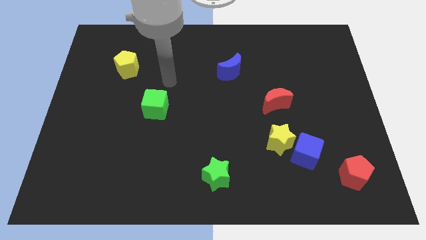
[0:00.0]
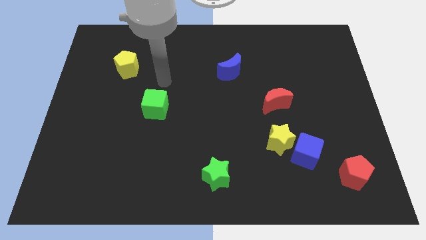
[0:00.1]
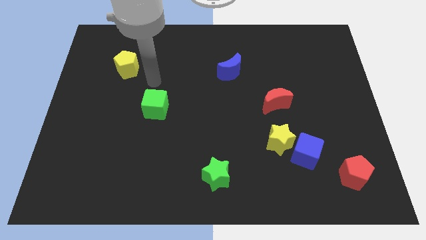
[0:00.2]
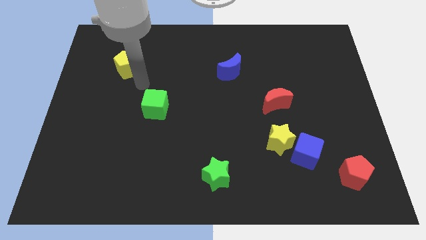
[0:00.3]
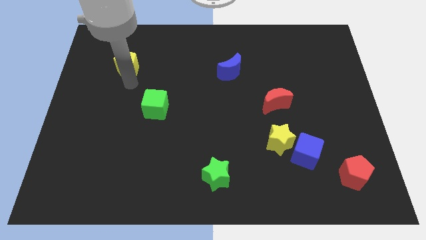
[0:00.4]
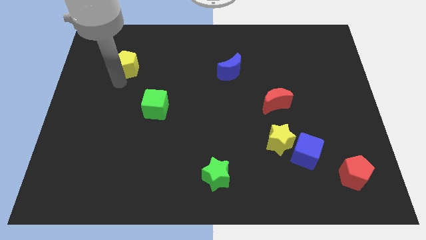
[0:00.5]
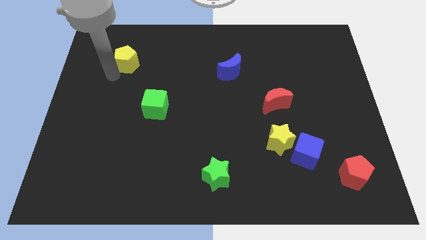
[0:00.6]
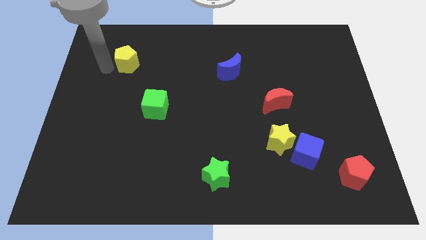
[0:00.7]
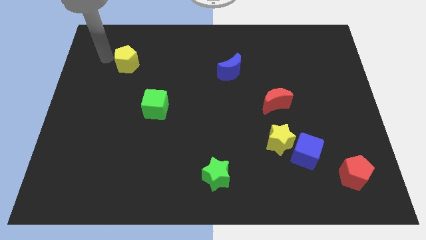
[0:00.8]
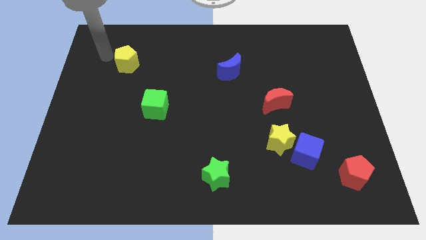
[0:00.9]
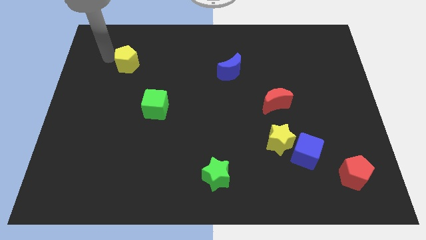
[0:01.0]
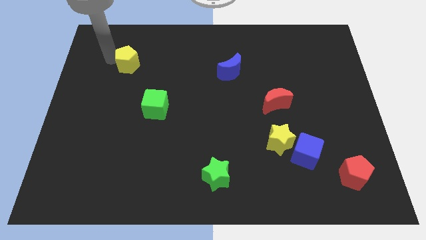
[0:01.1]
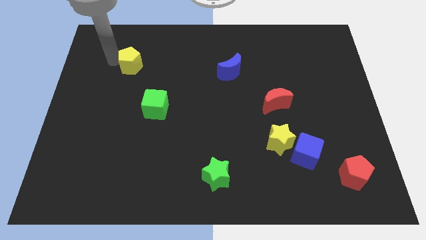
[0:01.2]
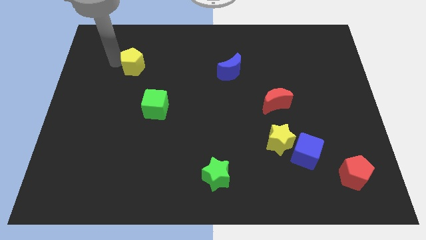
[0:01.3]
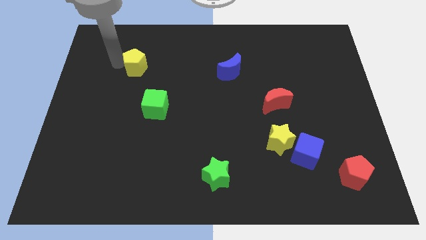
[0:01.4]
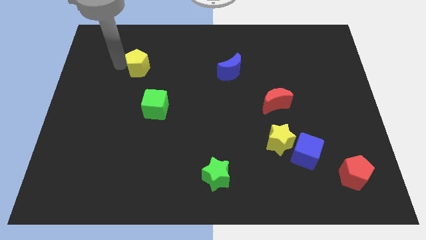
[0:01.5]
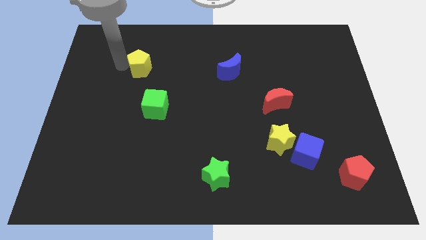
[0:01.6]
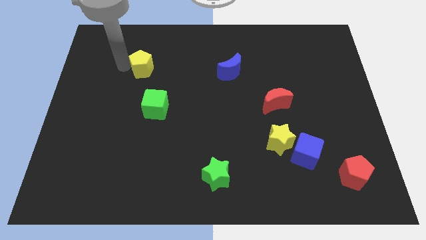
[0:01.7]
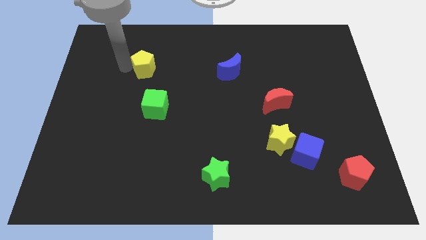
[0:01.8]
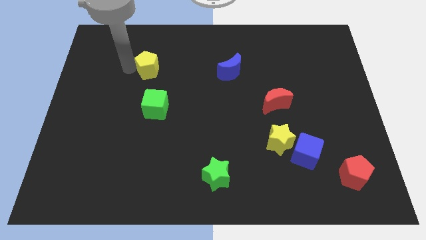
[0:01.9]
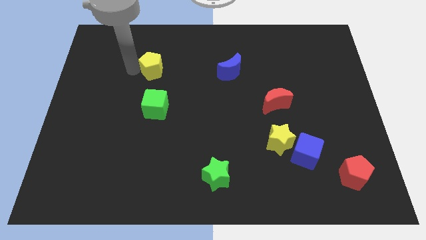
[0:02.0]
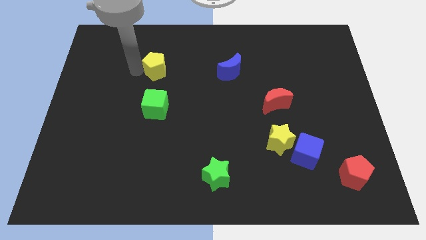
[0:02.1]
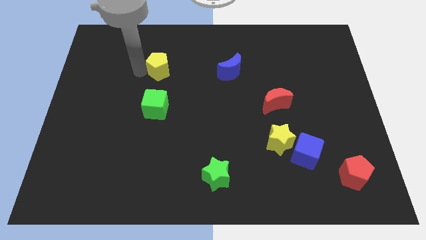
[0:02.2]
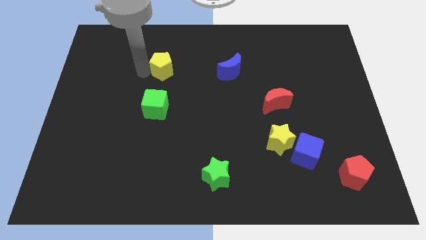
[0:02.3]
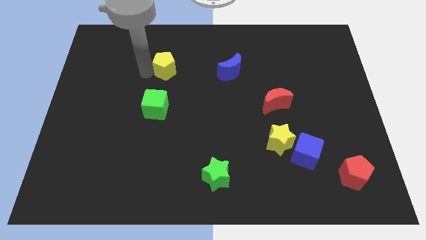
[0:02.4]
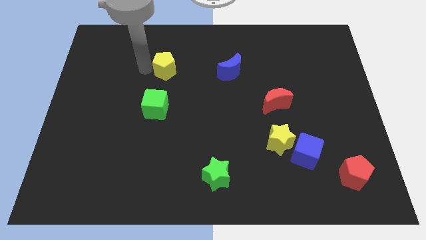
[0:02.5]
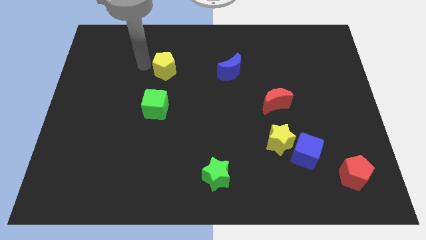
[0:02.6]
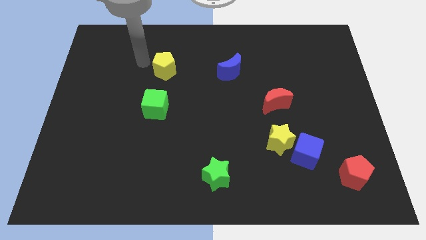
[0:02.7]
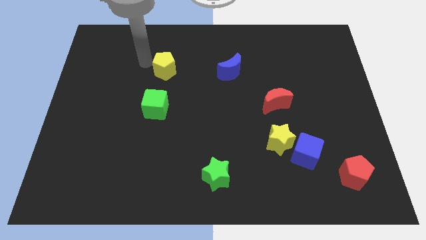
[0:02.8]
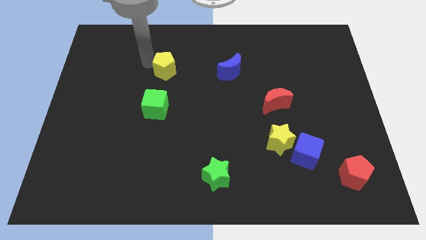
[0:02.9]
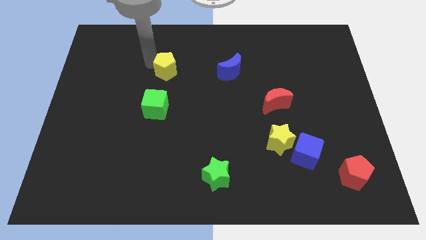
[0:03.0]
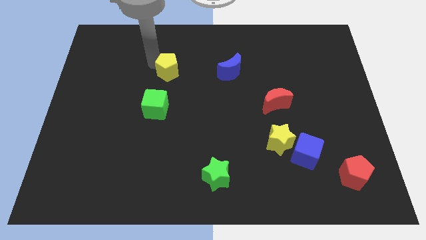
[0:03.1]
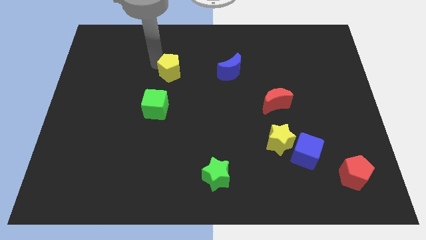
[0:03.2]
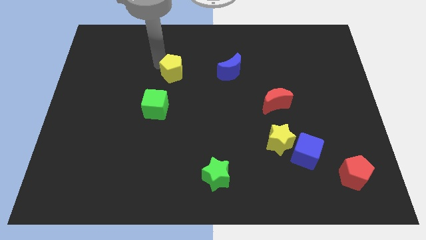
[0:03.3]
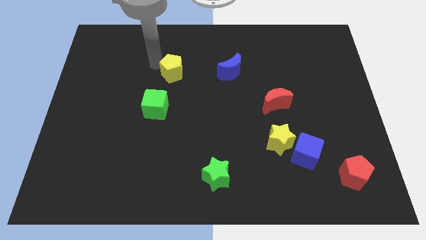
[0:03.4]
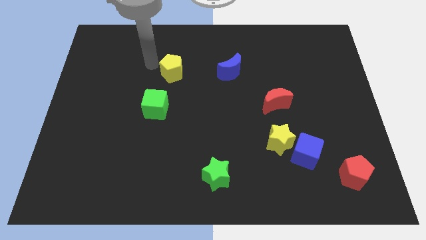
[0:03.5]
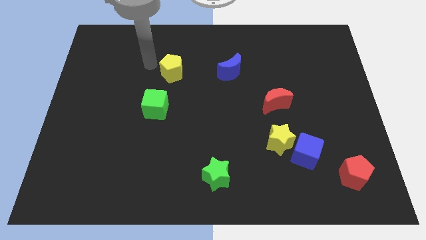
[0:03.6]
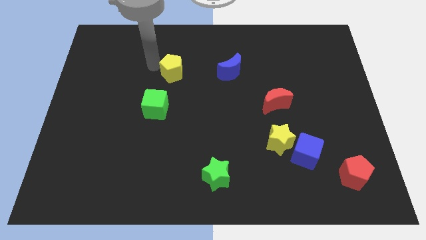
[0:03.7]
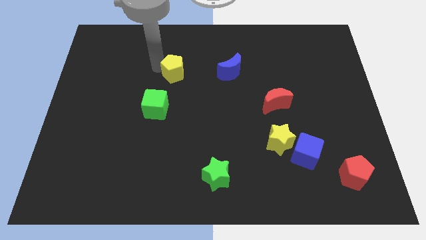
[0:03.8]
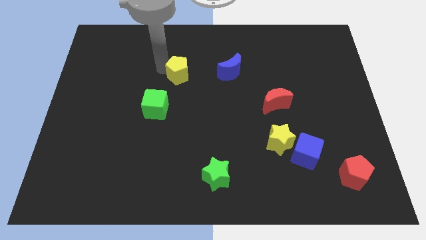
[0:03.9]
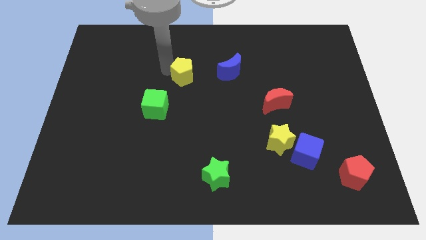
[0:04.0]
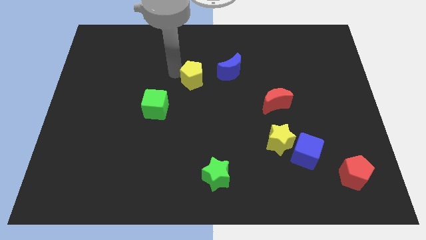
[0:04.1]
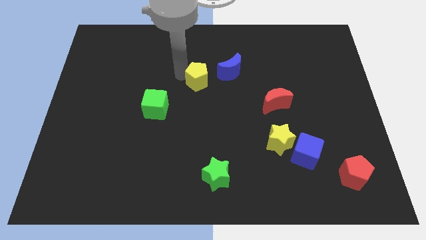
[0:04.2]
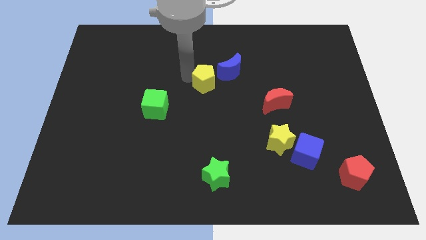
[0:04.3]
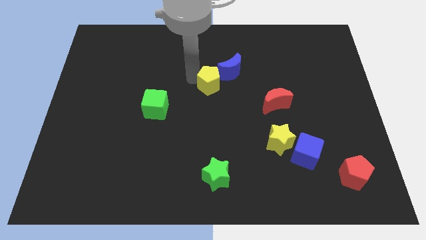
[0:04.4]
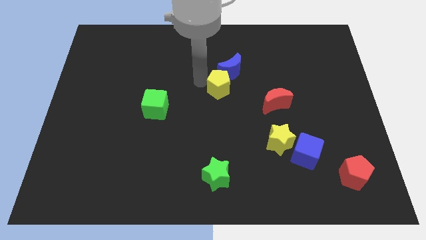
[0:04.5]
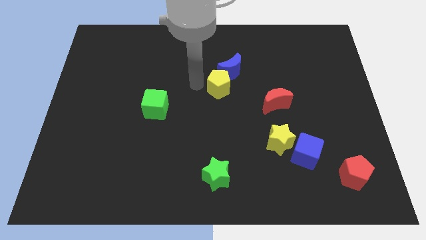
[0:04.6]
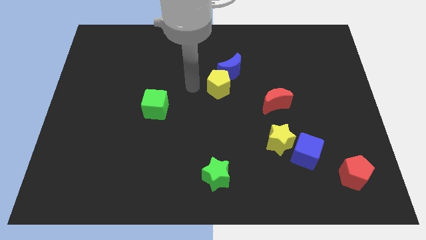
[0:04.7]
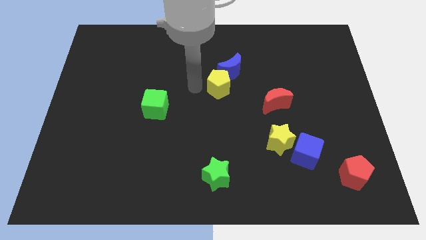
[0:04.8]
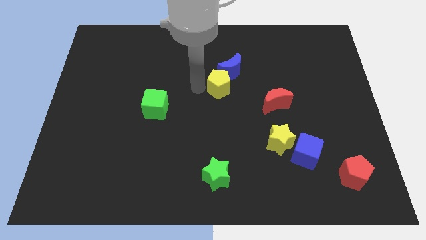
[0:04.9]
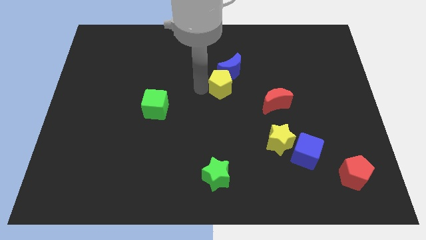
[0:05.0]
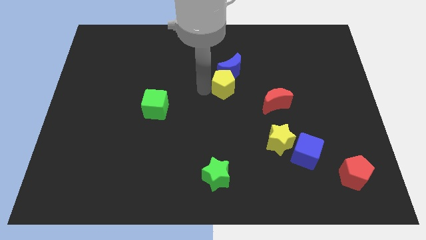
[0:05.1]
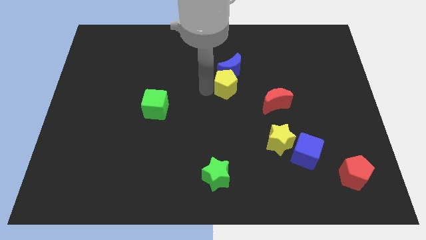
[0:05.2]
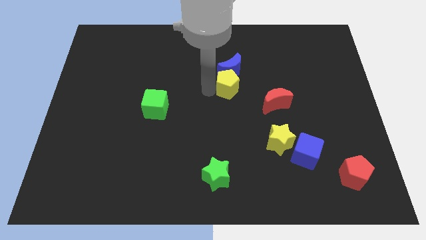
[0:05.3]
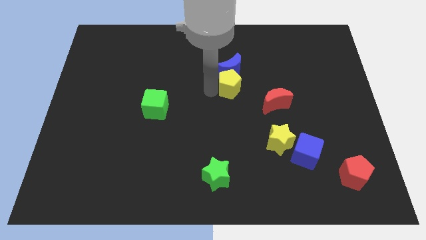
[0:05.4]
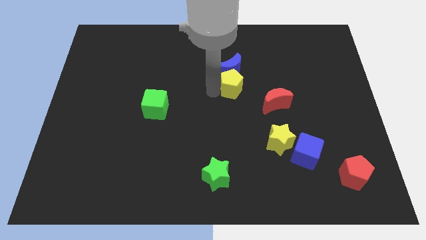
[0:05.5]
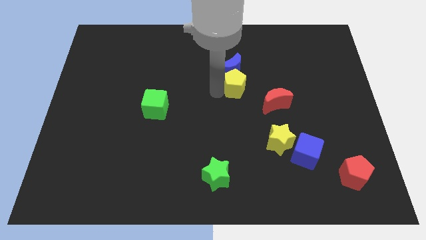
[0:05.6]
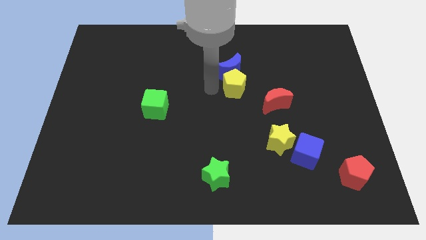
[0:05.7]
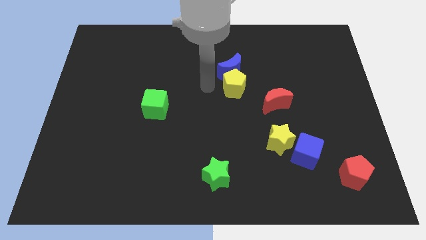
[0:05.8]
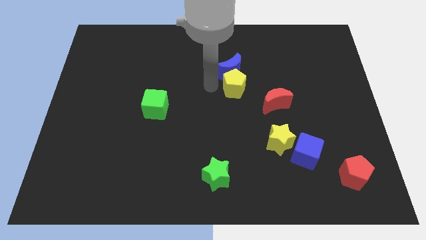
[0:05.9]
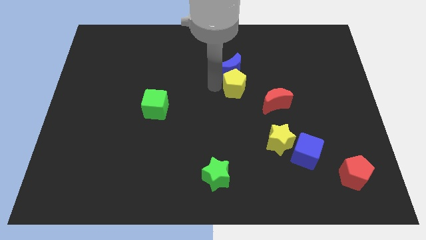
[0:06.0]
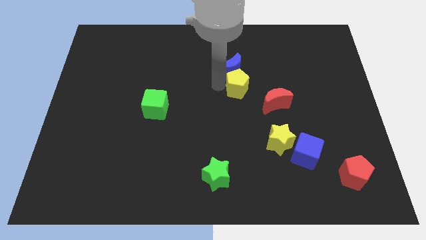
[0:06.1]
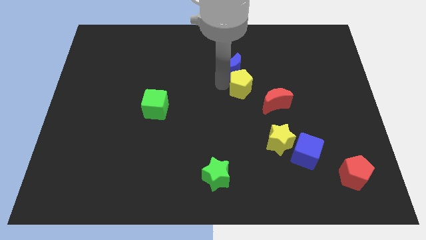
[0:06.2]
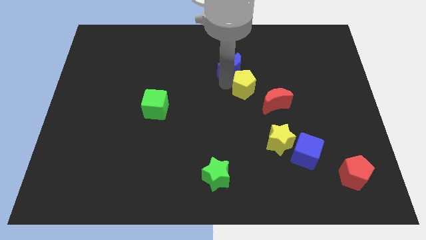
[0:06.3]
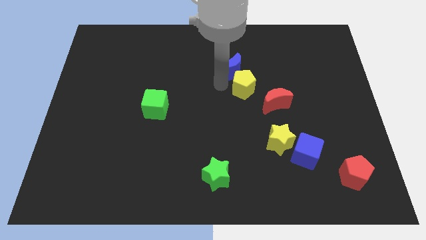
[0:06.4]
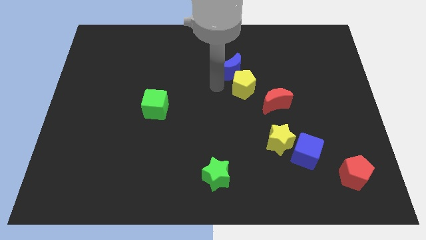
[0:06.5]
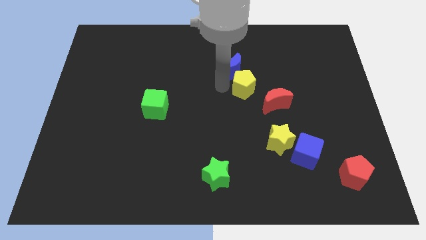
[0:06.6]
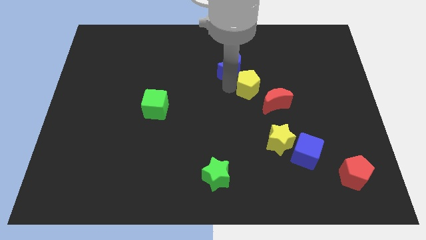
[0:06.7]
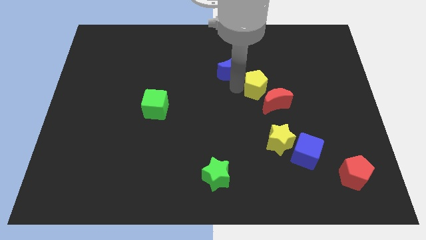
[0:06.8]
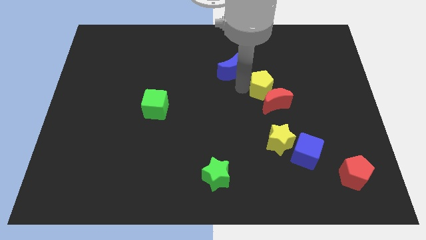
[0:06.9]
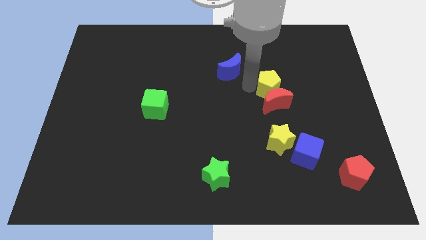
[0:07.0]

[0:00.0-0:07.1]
move the yellow pentagon to the top side of the yellow star

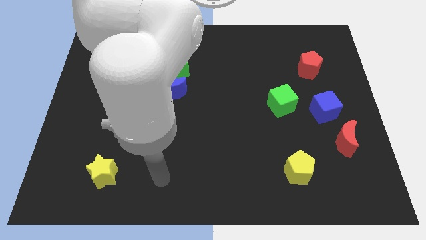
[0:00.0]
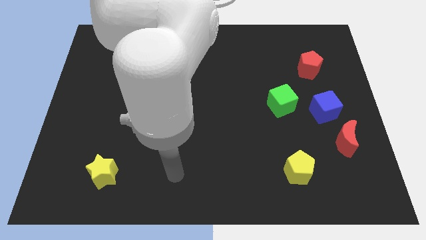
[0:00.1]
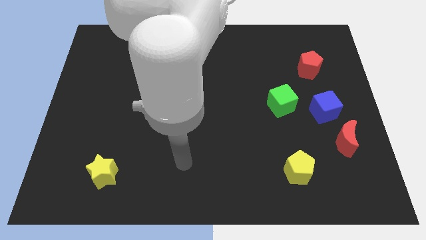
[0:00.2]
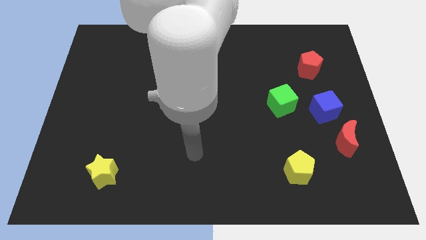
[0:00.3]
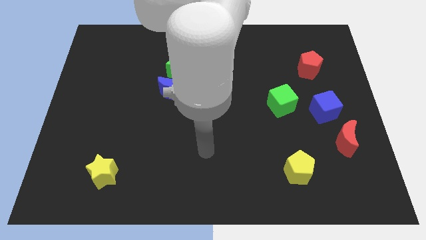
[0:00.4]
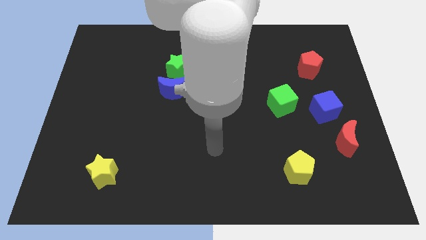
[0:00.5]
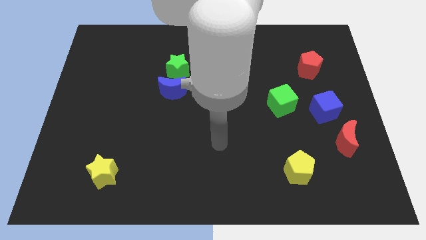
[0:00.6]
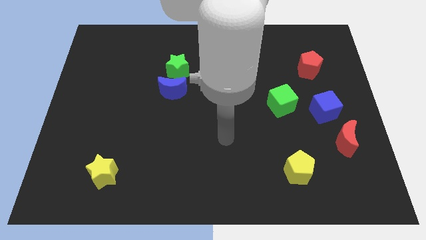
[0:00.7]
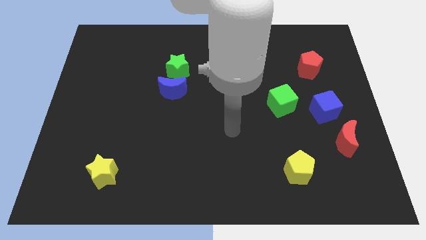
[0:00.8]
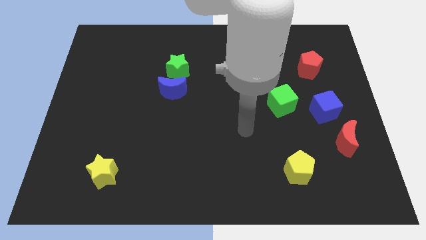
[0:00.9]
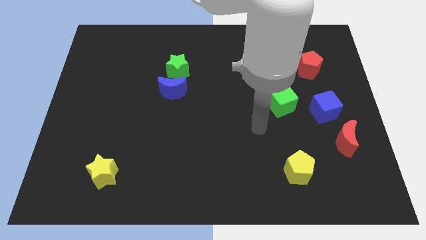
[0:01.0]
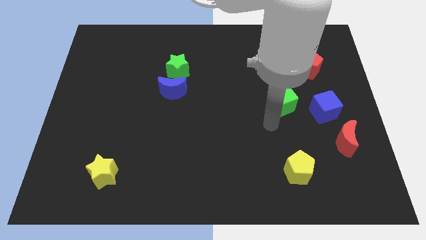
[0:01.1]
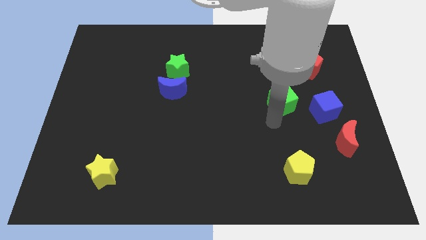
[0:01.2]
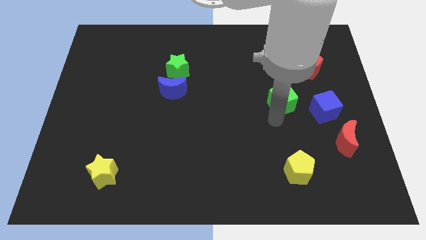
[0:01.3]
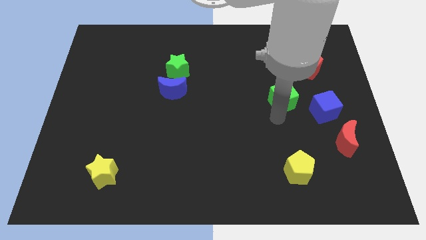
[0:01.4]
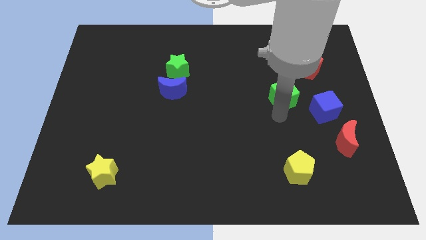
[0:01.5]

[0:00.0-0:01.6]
move the green cube to the bottom left side of the red pentagon
